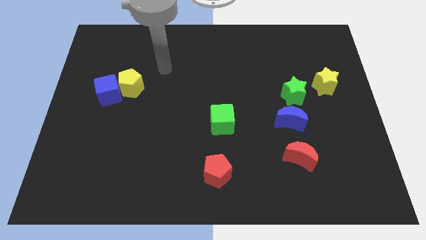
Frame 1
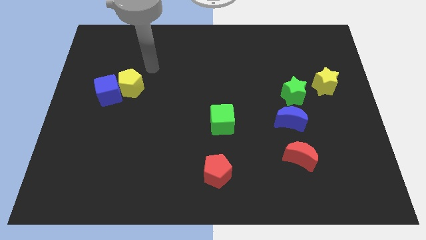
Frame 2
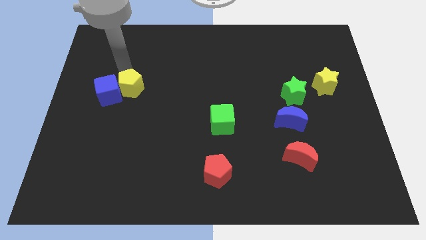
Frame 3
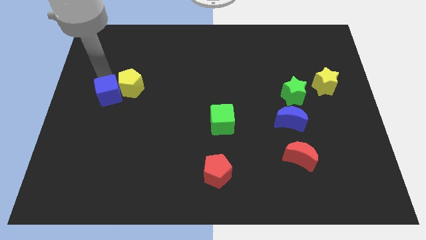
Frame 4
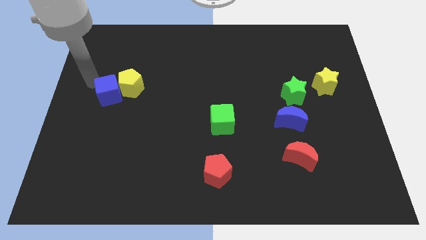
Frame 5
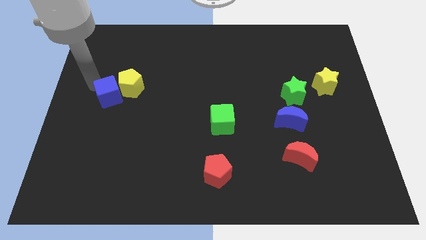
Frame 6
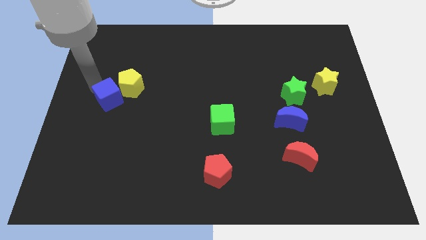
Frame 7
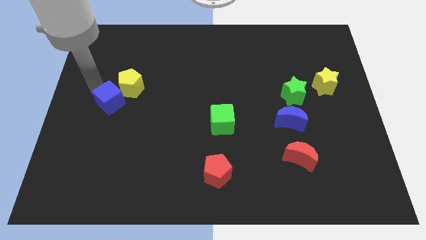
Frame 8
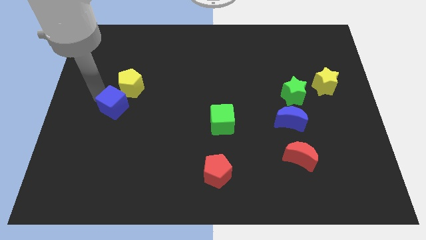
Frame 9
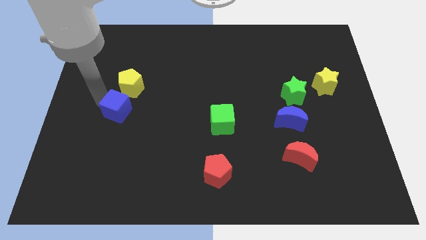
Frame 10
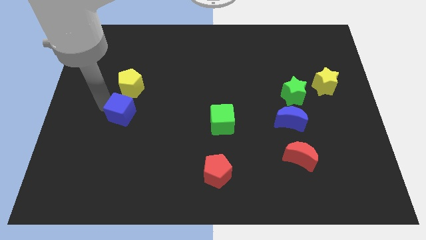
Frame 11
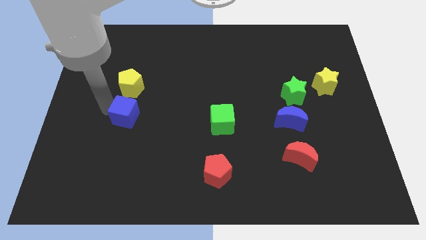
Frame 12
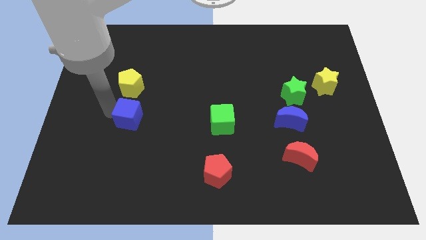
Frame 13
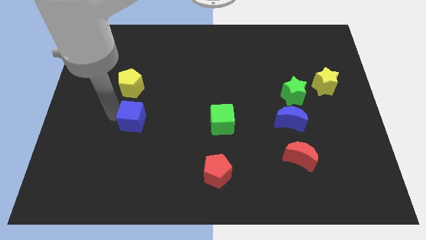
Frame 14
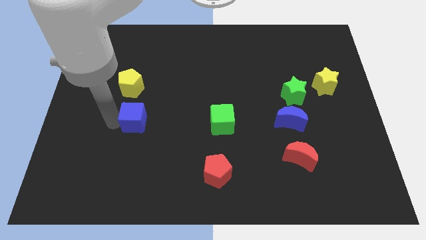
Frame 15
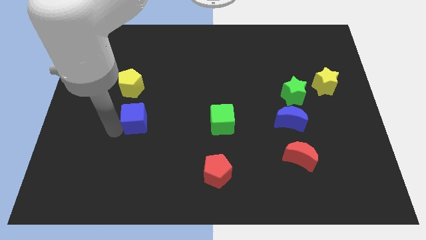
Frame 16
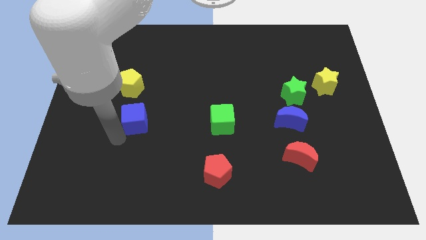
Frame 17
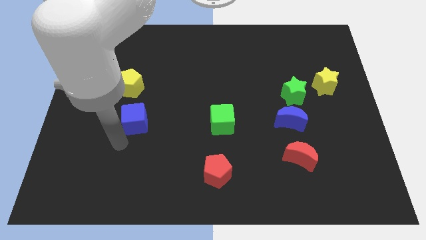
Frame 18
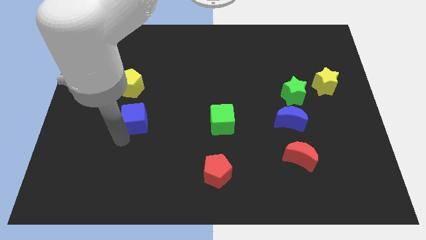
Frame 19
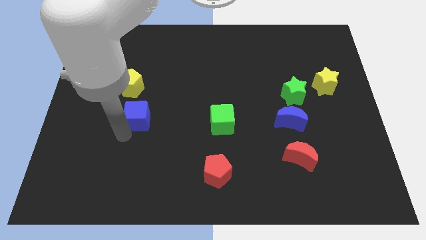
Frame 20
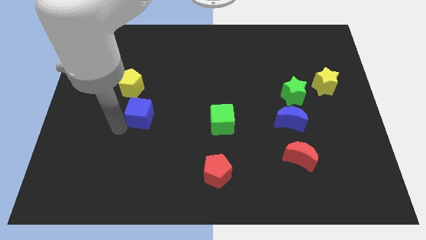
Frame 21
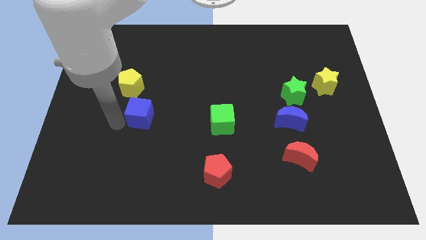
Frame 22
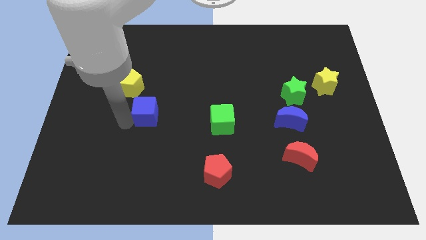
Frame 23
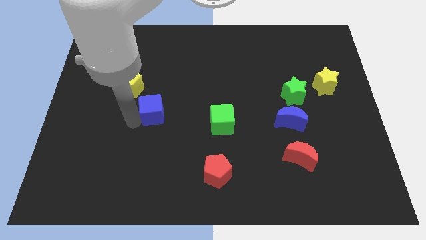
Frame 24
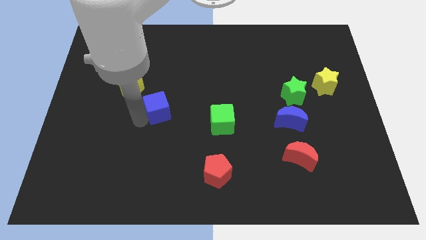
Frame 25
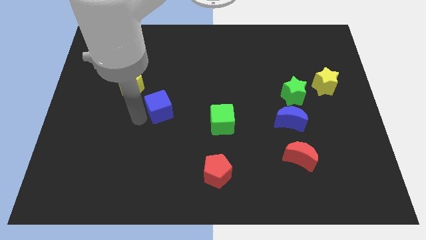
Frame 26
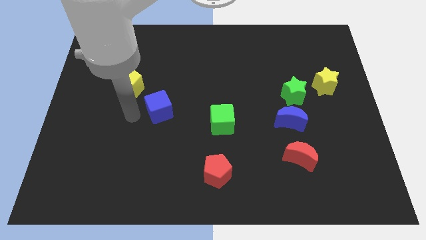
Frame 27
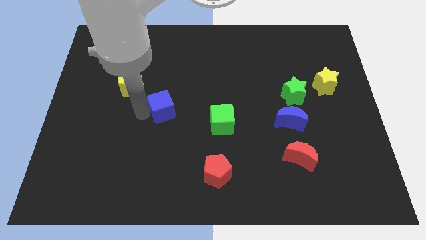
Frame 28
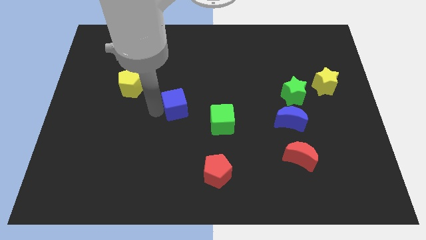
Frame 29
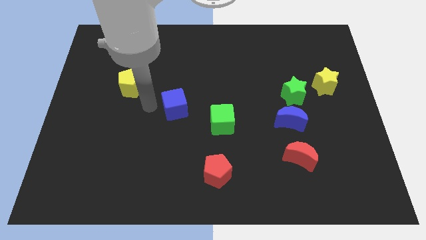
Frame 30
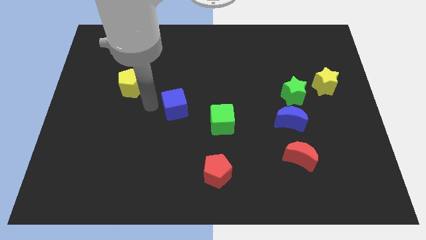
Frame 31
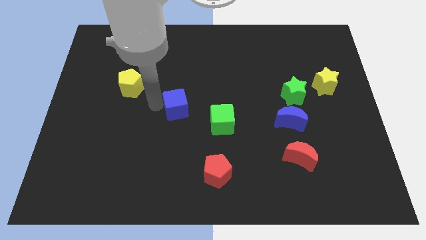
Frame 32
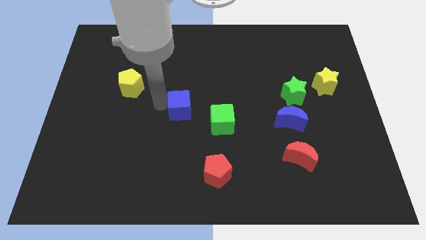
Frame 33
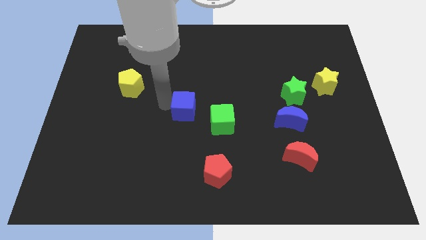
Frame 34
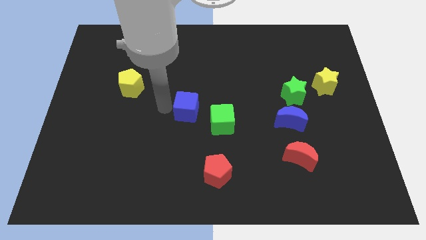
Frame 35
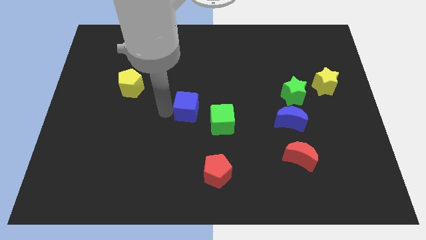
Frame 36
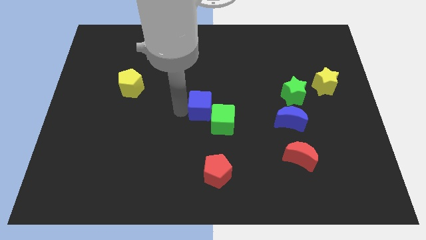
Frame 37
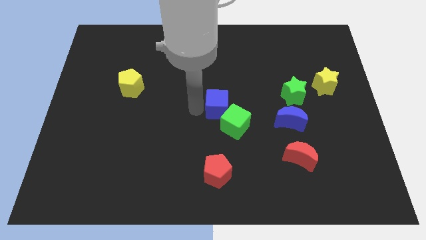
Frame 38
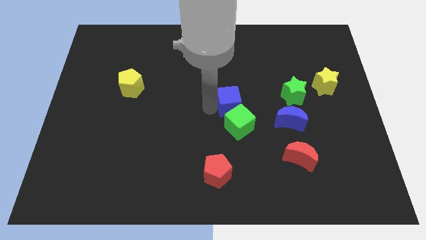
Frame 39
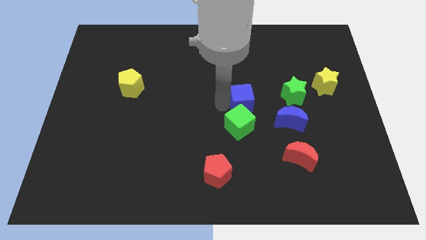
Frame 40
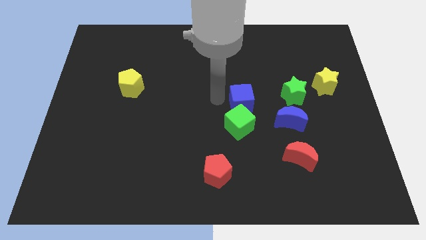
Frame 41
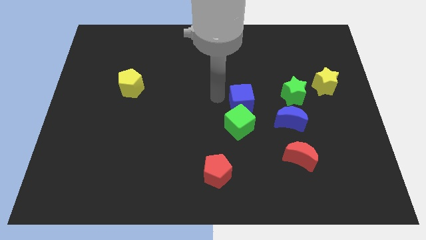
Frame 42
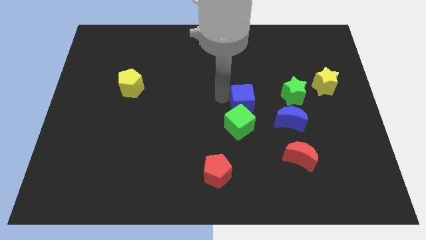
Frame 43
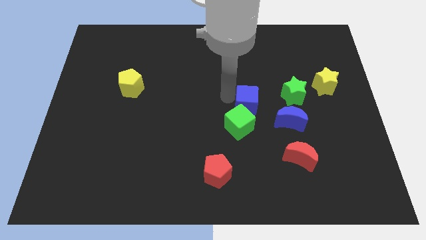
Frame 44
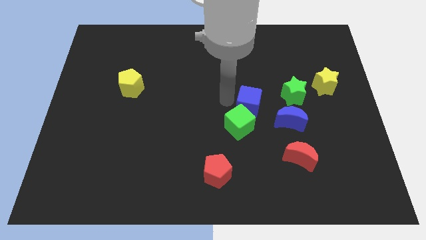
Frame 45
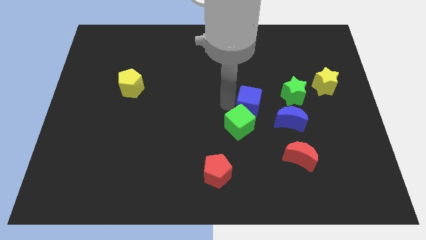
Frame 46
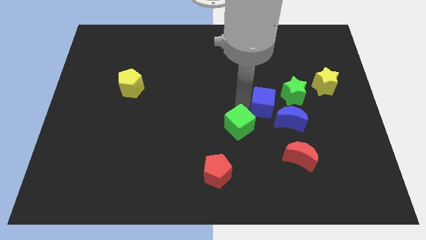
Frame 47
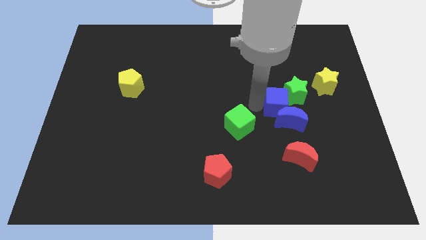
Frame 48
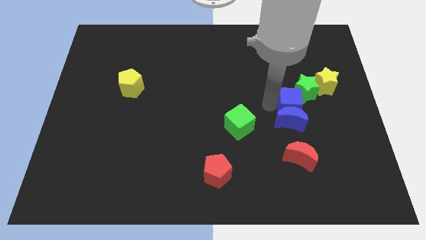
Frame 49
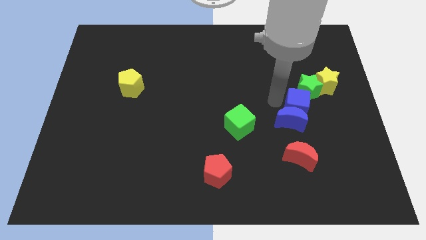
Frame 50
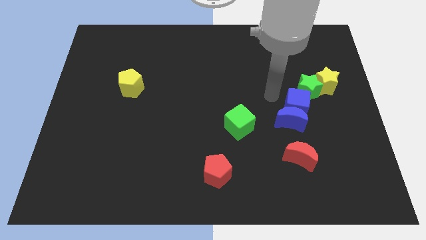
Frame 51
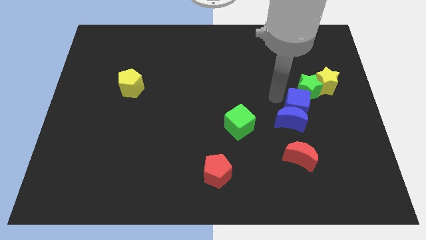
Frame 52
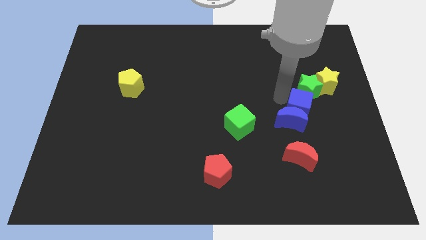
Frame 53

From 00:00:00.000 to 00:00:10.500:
put the blue cube just right of the blue moon
